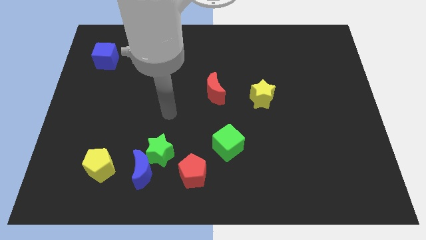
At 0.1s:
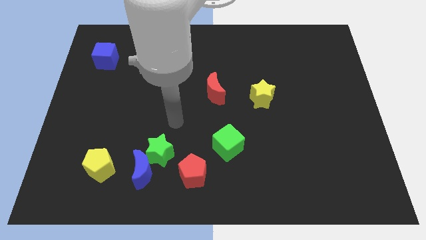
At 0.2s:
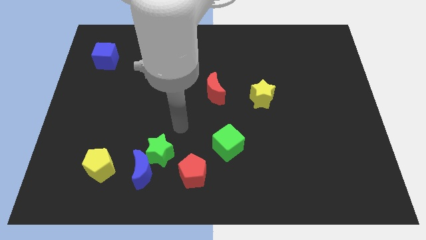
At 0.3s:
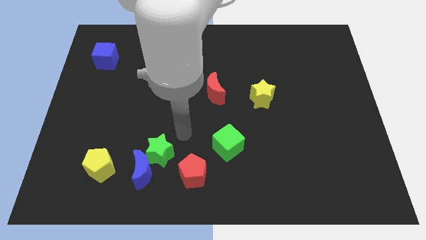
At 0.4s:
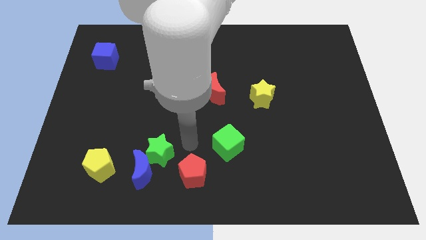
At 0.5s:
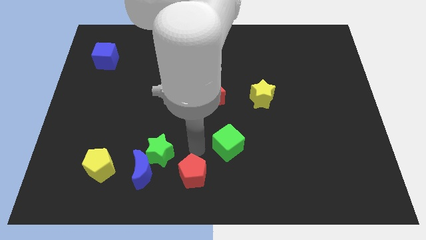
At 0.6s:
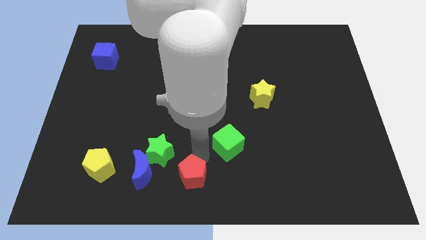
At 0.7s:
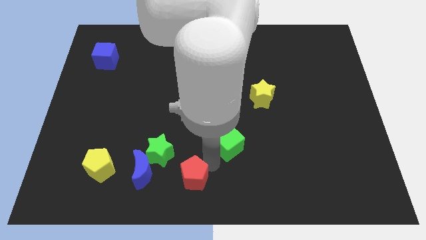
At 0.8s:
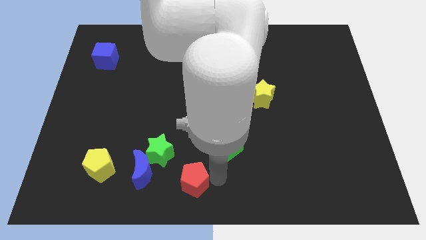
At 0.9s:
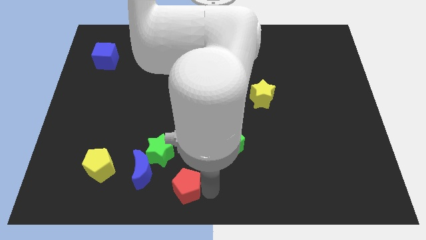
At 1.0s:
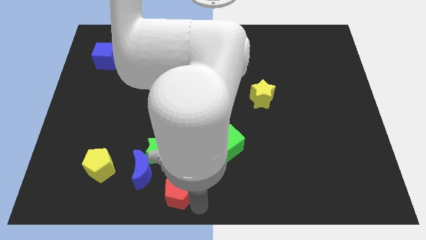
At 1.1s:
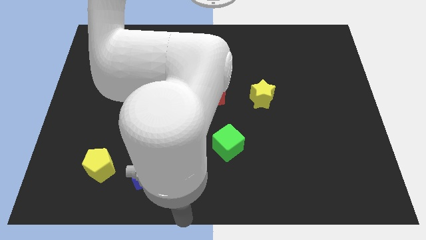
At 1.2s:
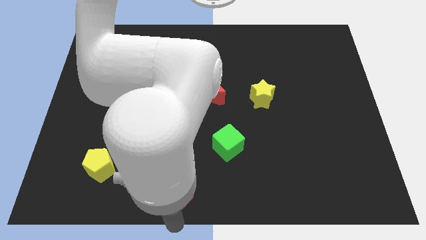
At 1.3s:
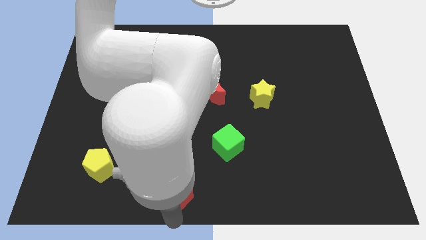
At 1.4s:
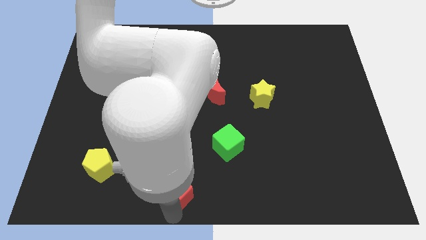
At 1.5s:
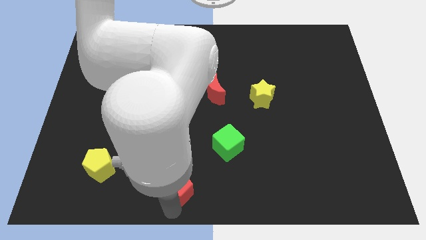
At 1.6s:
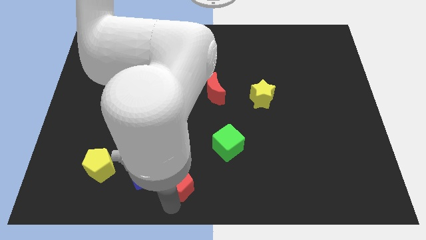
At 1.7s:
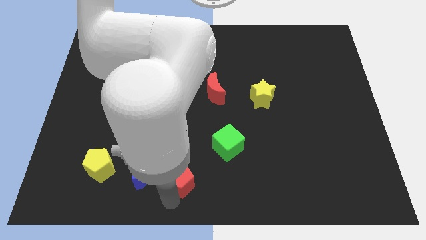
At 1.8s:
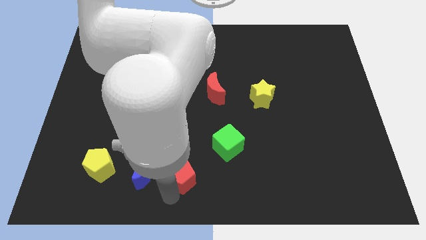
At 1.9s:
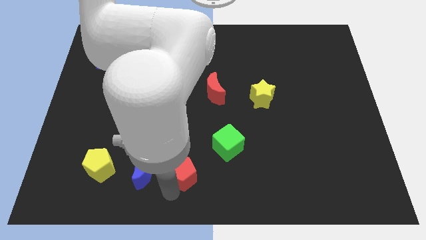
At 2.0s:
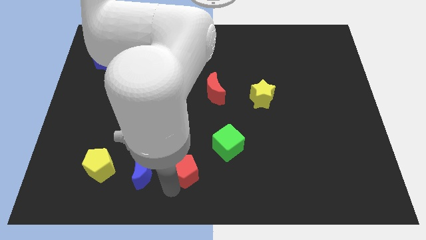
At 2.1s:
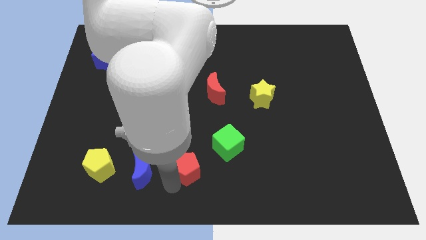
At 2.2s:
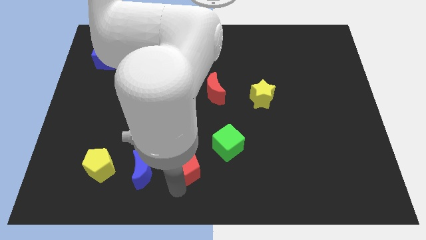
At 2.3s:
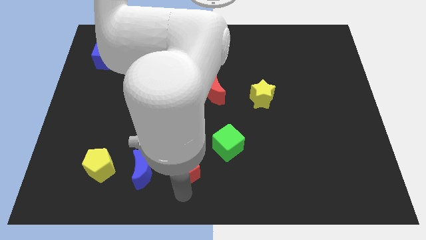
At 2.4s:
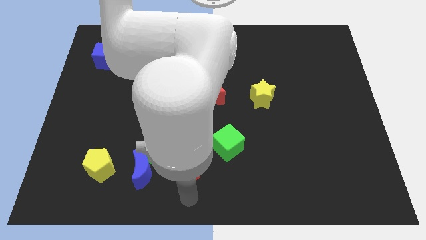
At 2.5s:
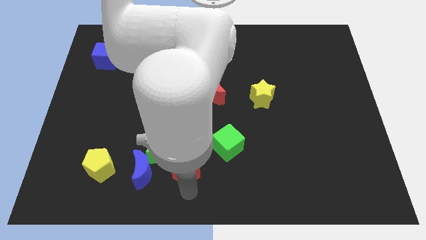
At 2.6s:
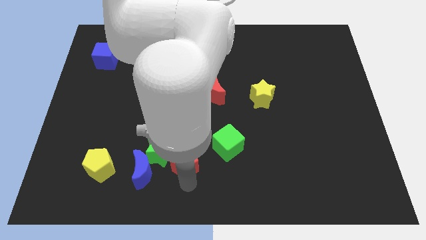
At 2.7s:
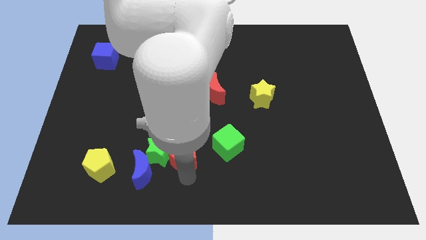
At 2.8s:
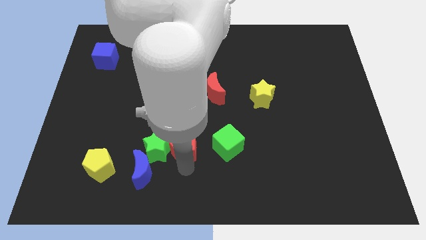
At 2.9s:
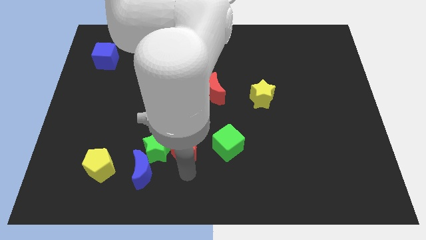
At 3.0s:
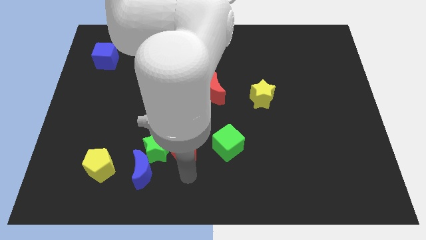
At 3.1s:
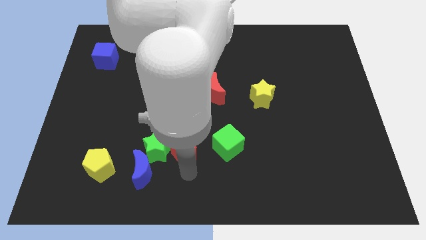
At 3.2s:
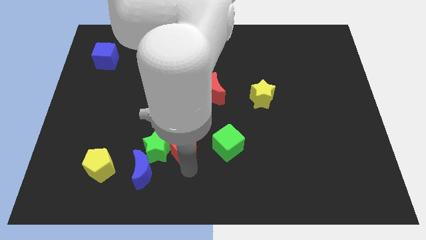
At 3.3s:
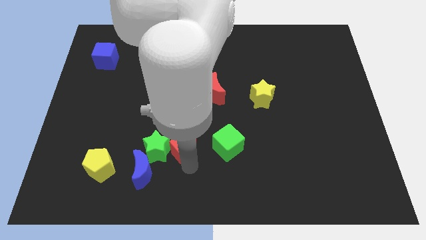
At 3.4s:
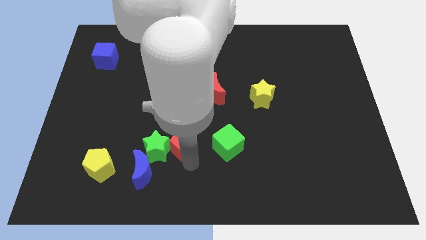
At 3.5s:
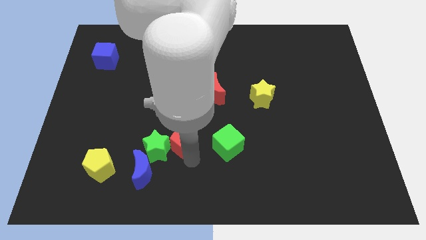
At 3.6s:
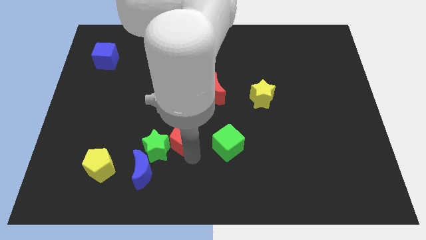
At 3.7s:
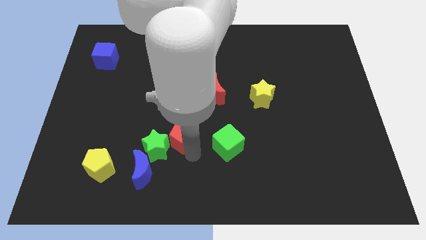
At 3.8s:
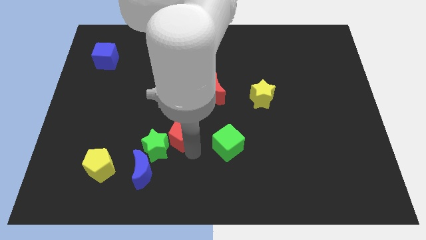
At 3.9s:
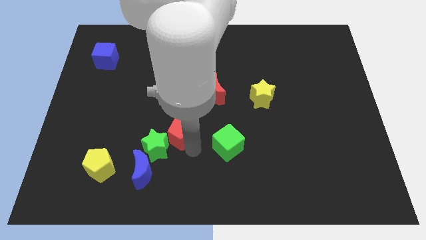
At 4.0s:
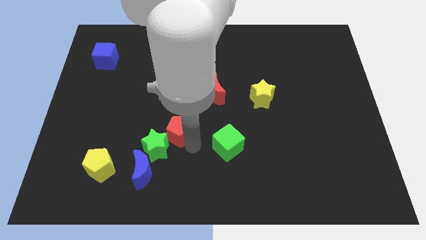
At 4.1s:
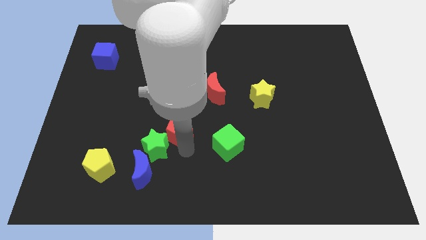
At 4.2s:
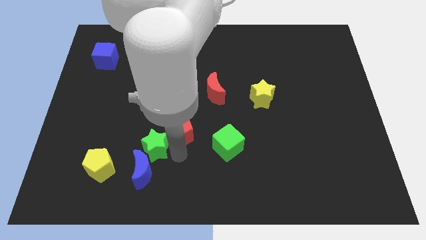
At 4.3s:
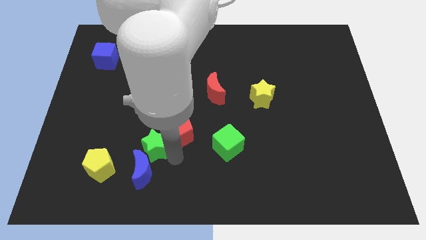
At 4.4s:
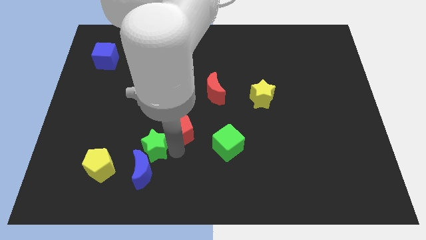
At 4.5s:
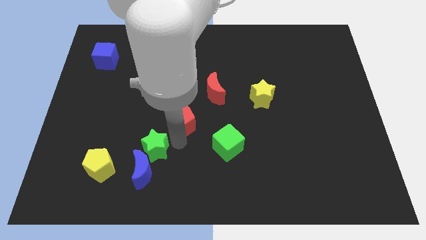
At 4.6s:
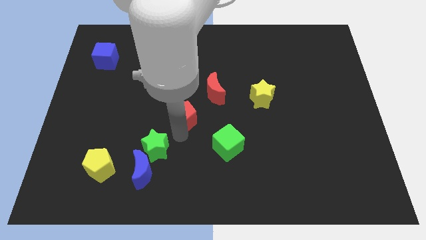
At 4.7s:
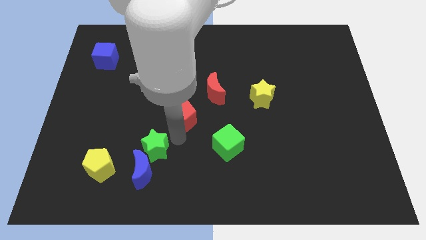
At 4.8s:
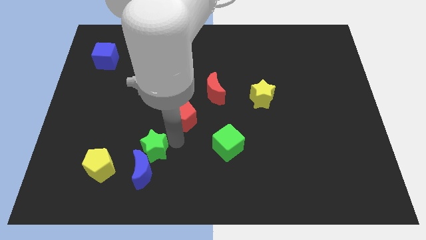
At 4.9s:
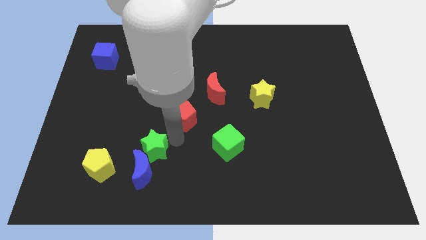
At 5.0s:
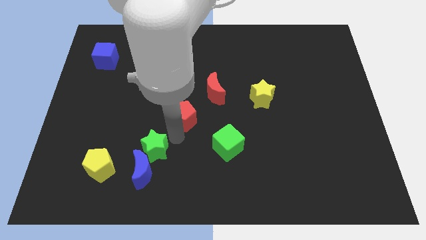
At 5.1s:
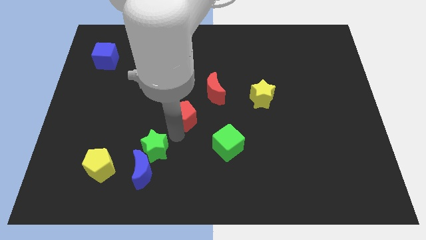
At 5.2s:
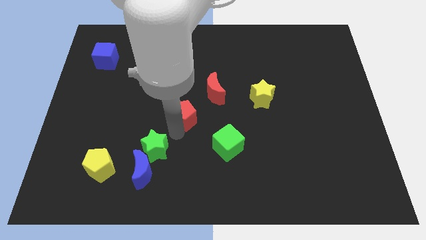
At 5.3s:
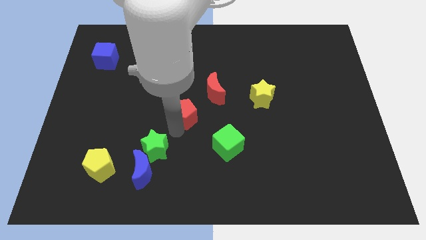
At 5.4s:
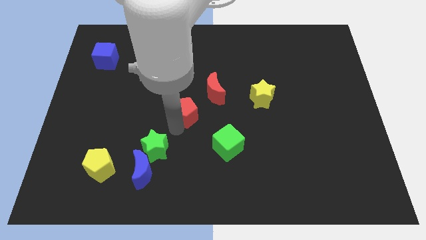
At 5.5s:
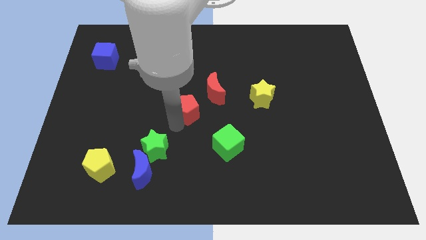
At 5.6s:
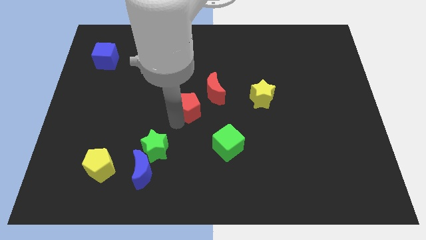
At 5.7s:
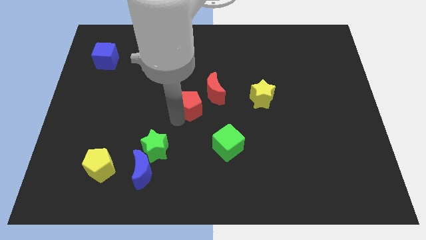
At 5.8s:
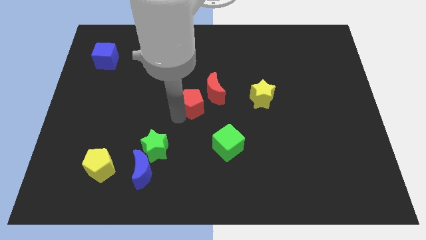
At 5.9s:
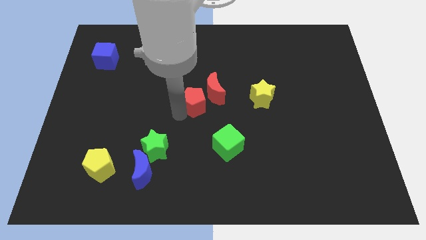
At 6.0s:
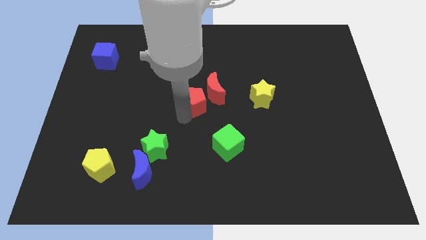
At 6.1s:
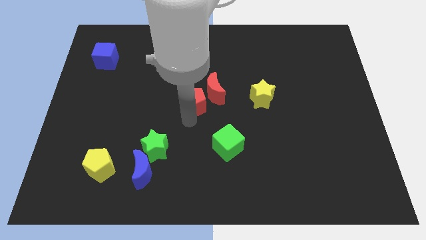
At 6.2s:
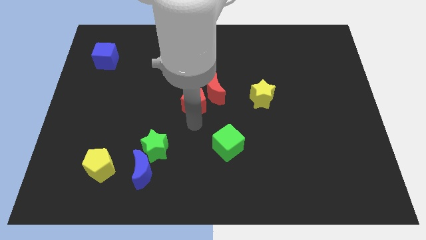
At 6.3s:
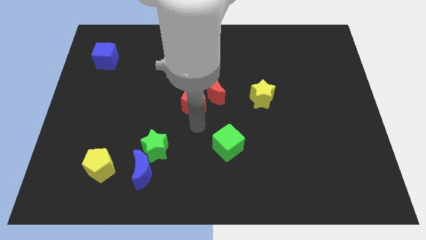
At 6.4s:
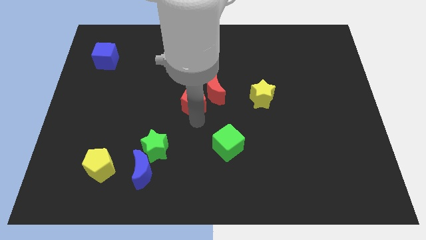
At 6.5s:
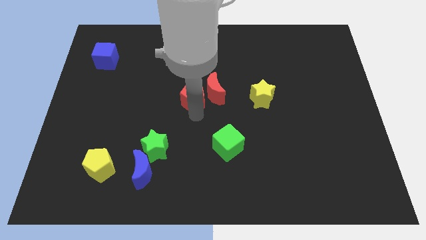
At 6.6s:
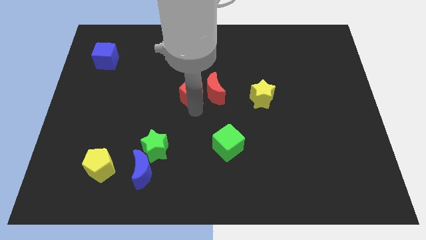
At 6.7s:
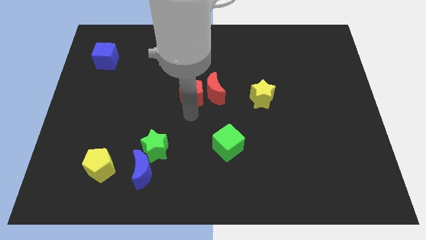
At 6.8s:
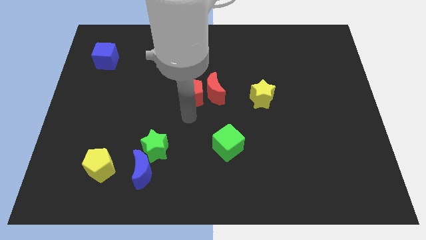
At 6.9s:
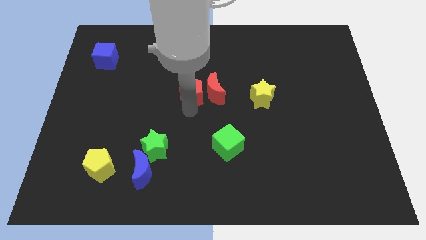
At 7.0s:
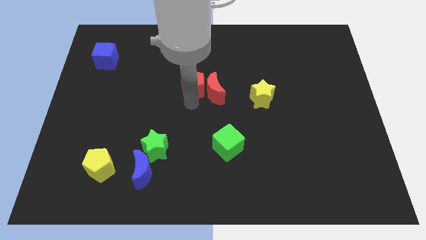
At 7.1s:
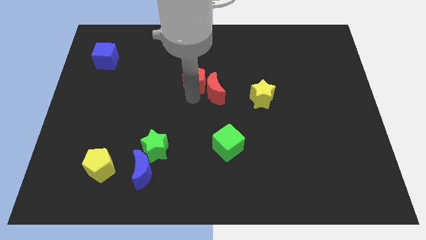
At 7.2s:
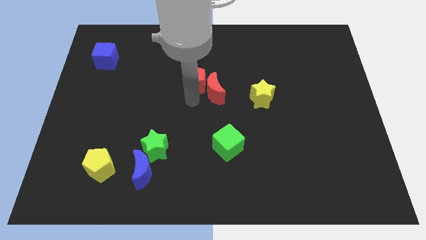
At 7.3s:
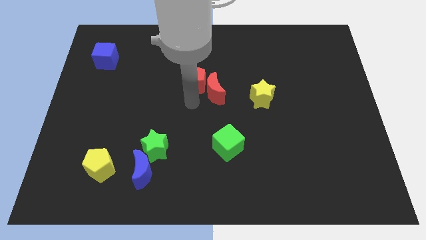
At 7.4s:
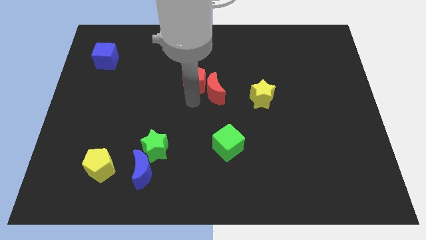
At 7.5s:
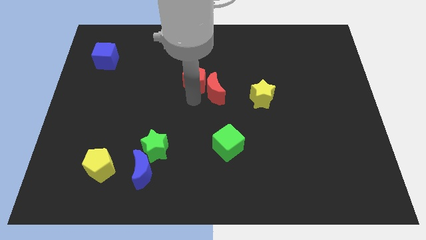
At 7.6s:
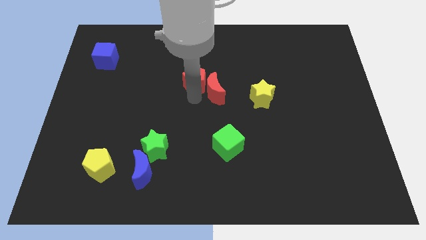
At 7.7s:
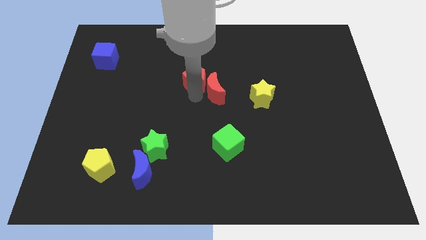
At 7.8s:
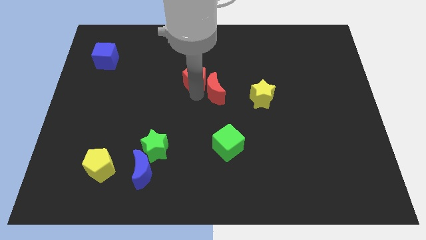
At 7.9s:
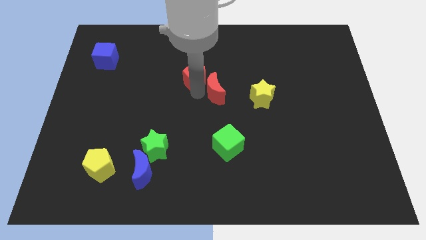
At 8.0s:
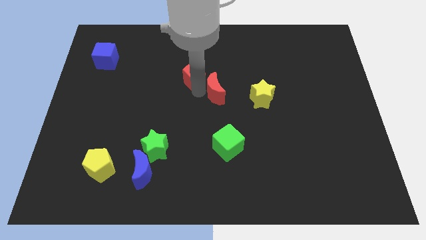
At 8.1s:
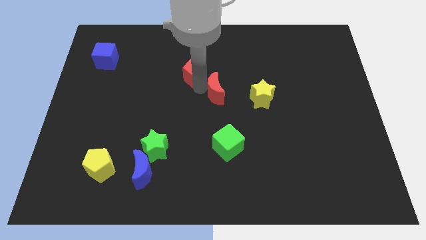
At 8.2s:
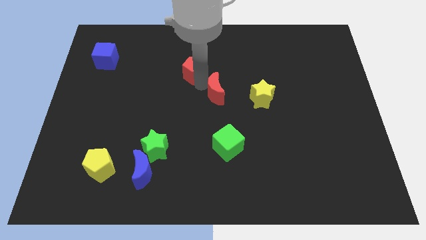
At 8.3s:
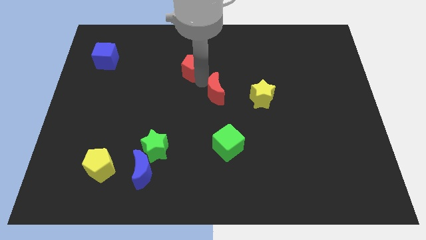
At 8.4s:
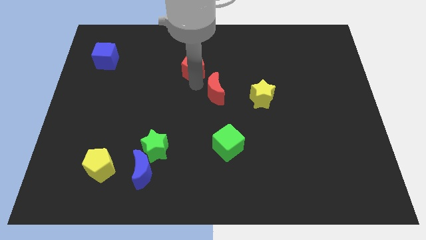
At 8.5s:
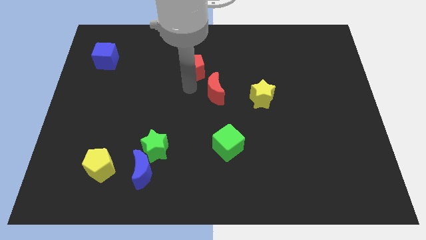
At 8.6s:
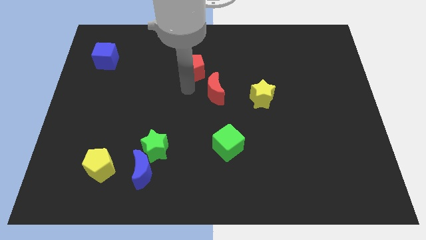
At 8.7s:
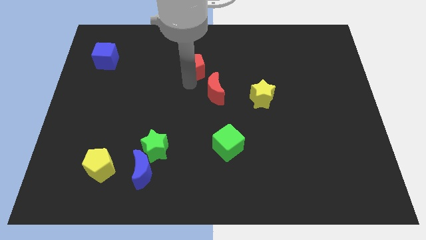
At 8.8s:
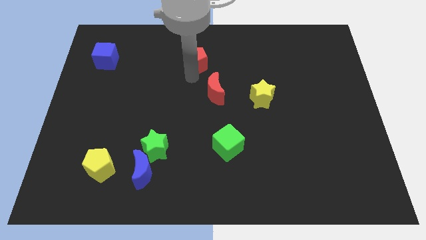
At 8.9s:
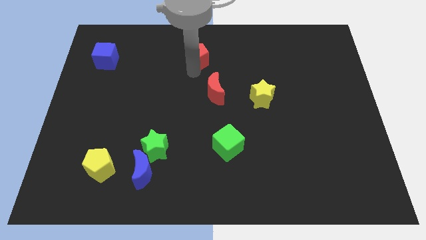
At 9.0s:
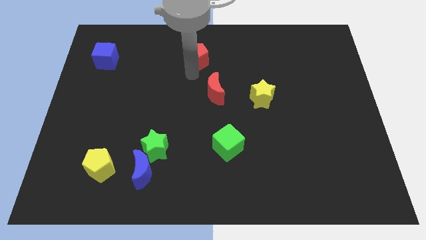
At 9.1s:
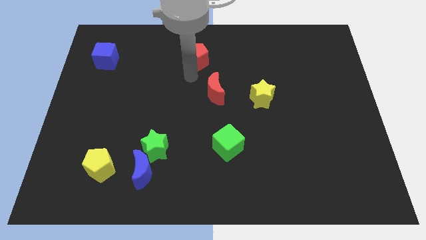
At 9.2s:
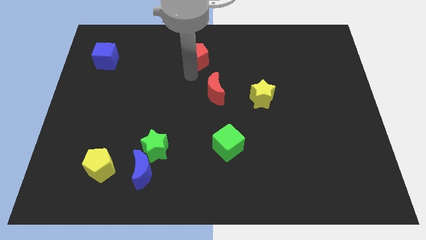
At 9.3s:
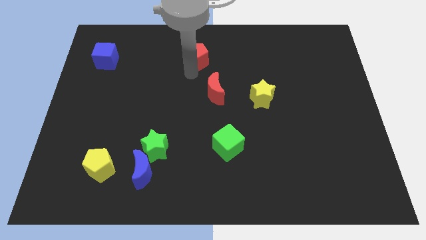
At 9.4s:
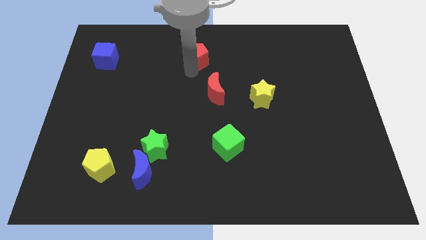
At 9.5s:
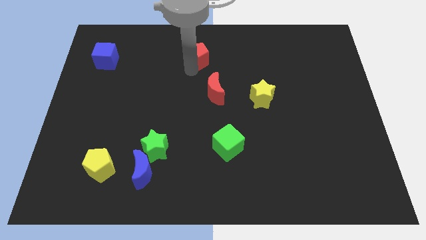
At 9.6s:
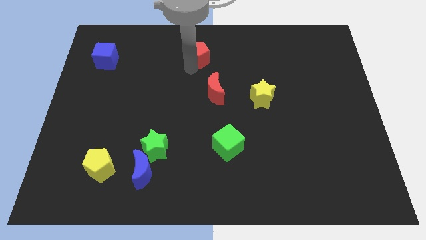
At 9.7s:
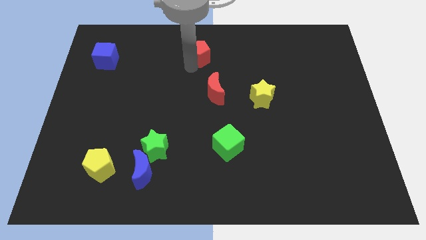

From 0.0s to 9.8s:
move the red pentagon to the top
